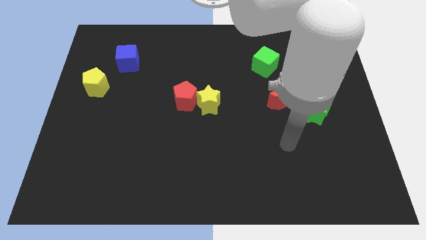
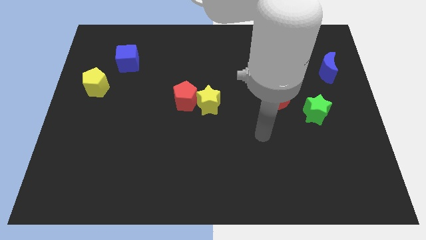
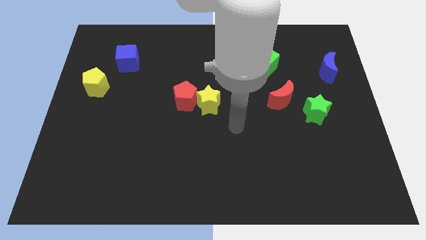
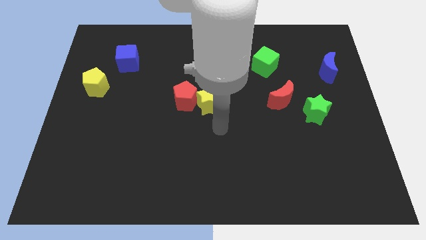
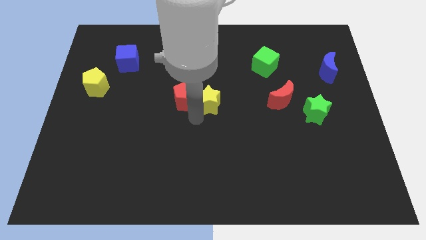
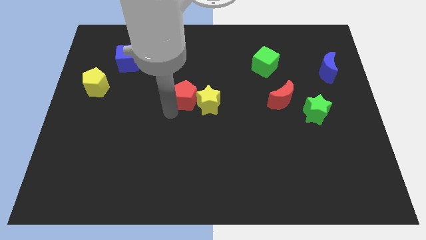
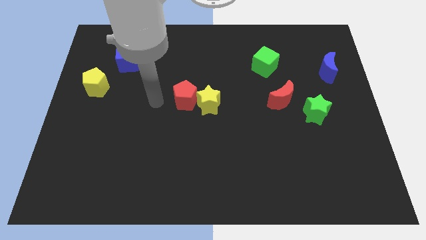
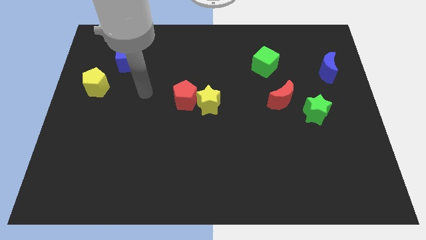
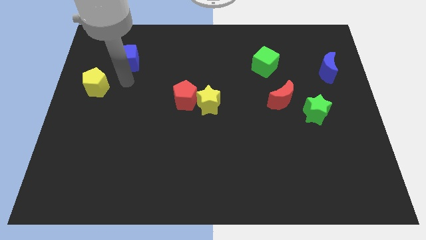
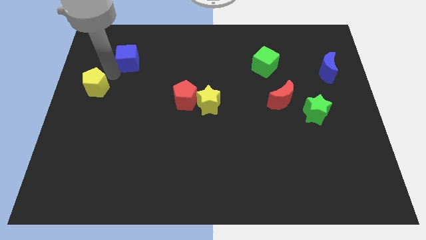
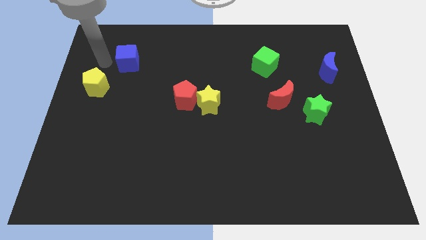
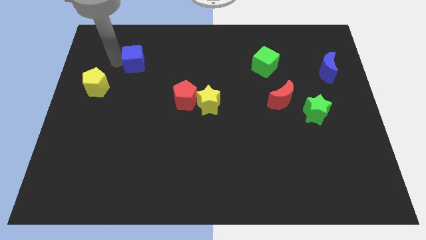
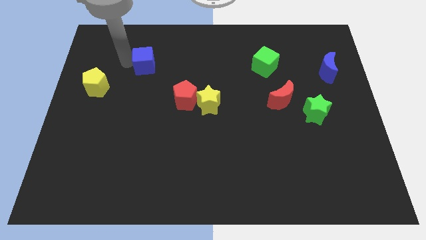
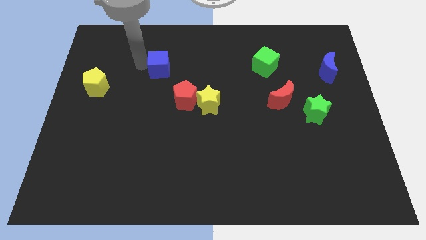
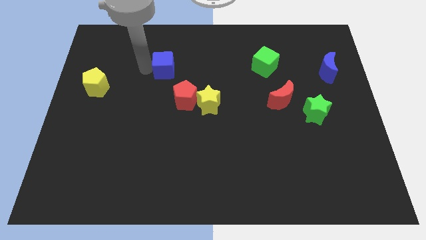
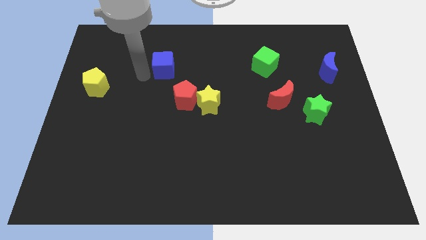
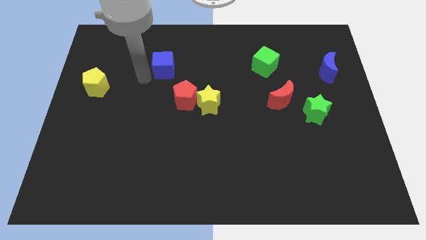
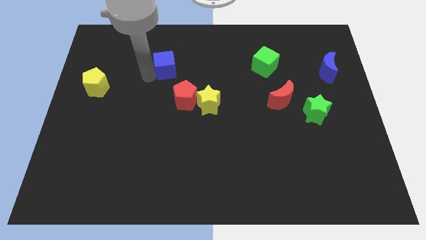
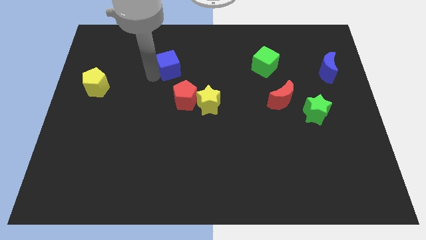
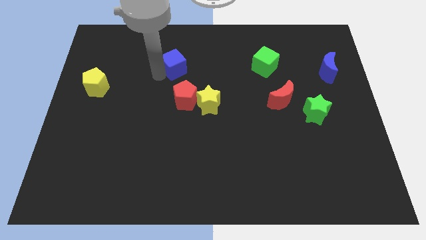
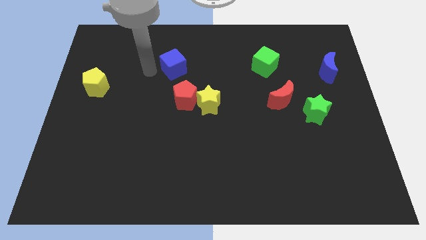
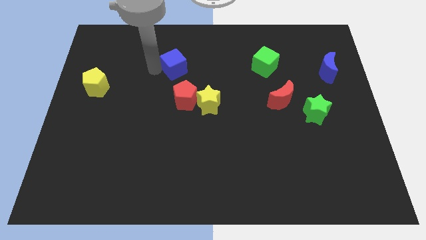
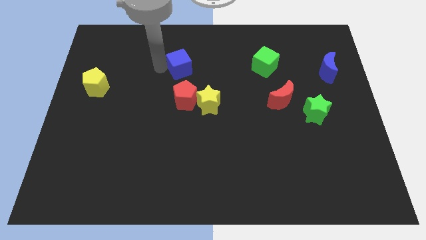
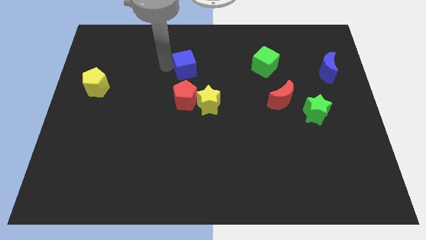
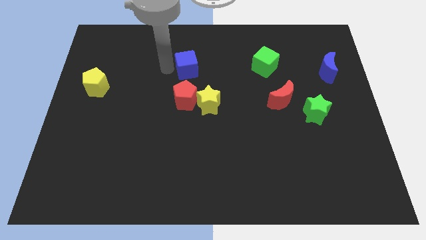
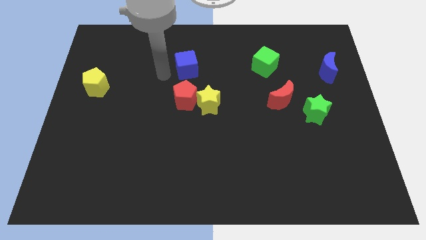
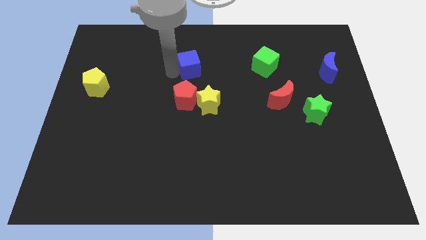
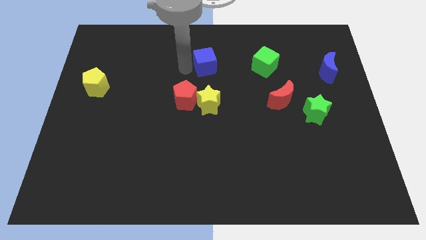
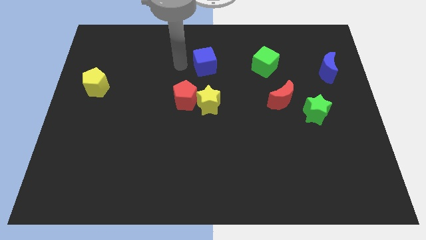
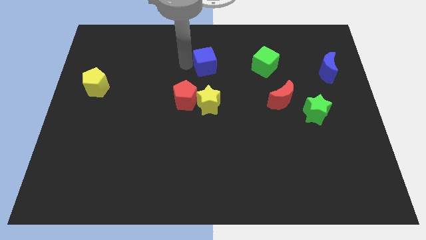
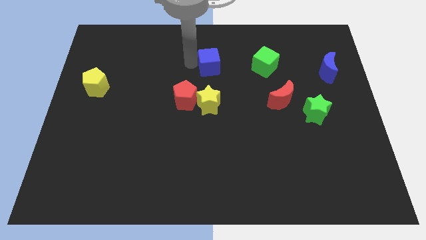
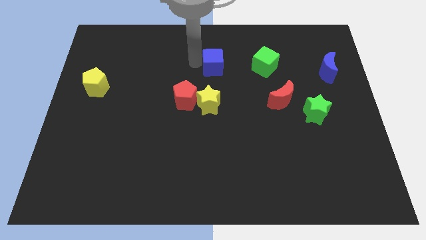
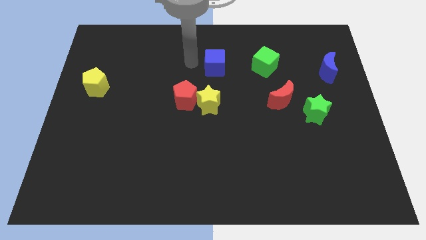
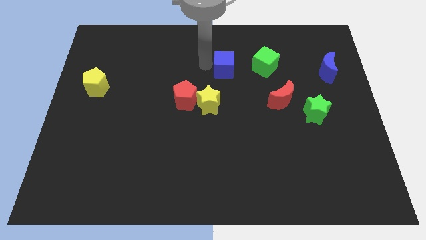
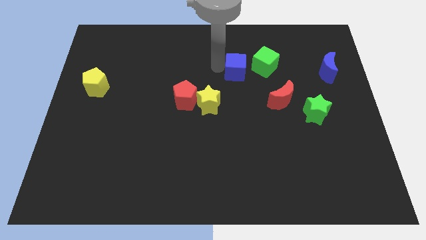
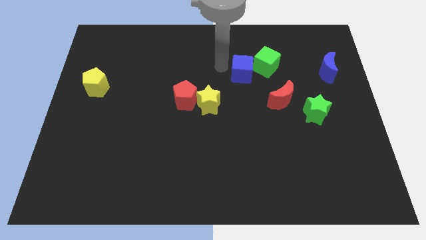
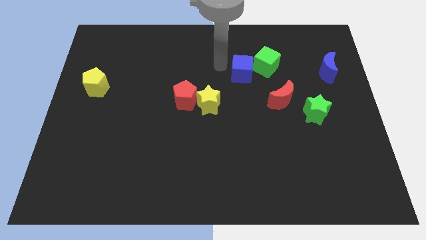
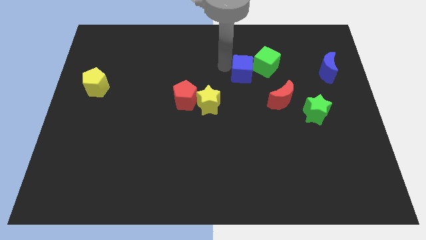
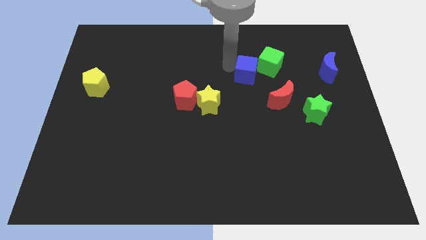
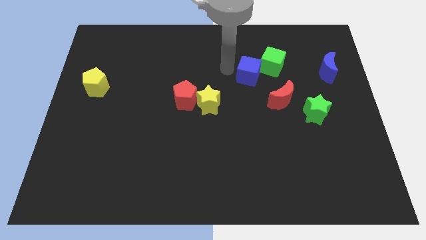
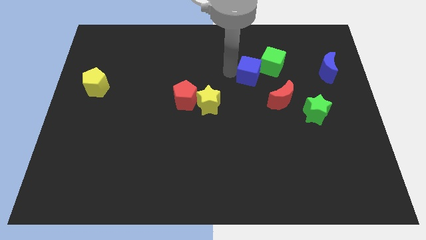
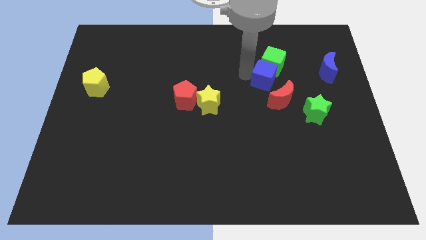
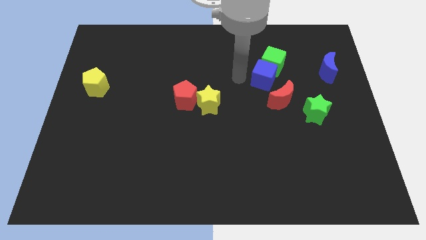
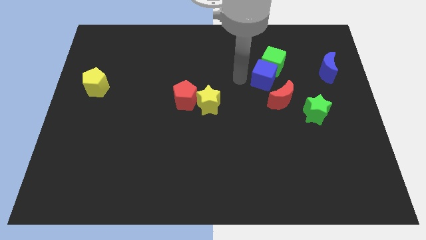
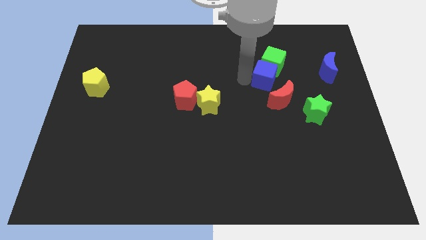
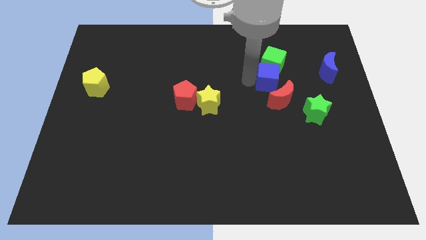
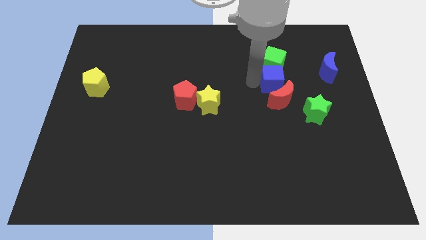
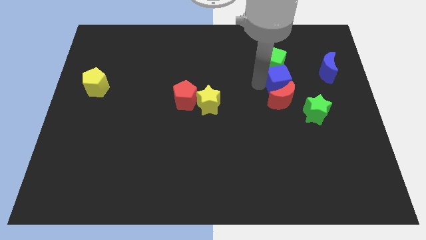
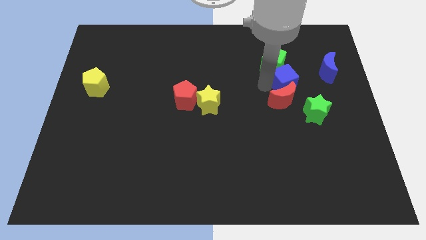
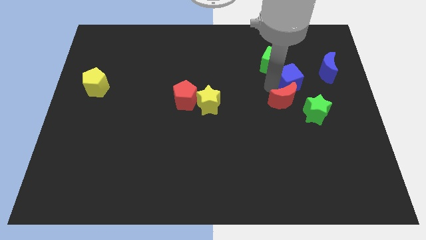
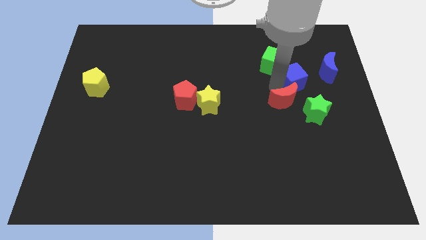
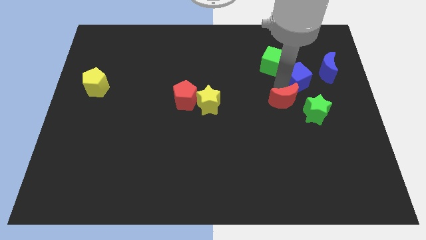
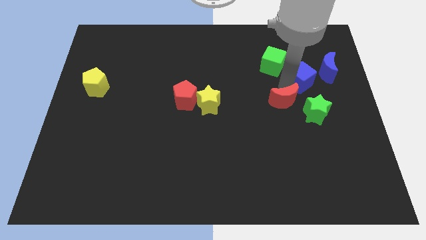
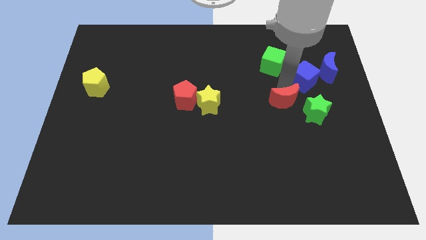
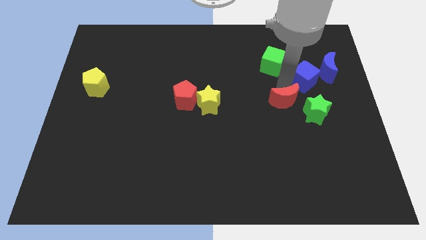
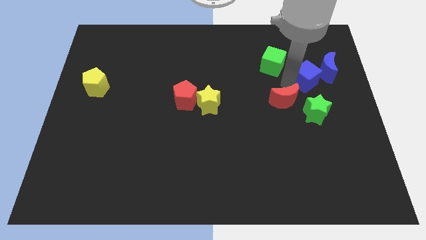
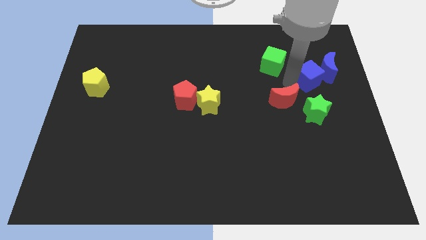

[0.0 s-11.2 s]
move the blue cube close to the blue moon

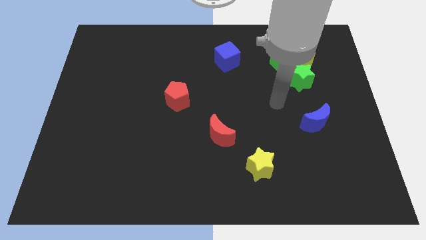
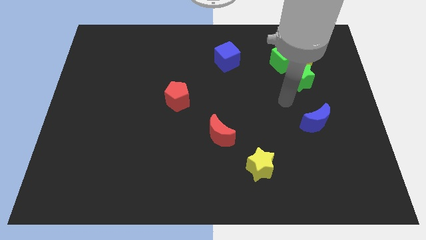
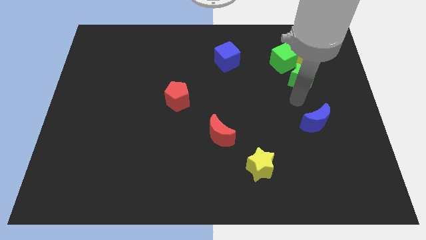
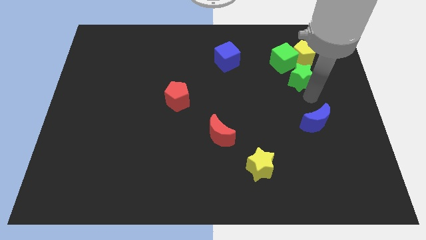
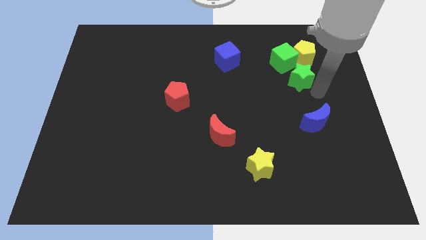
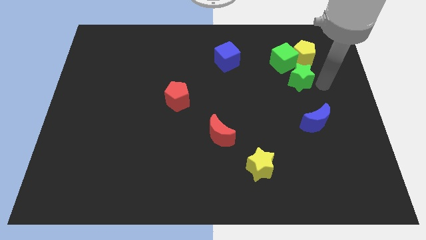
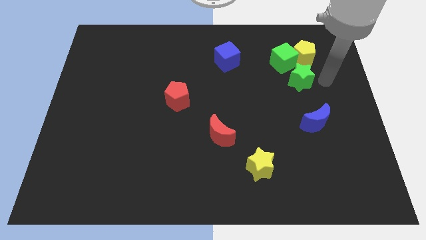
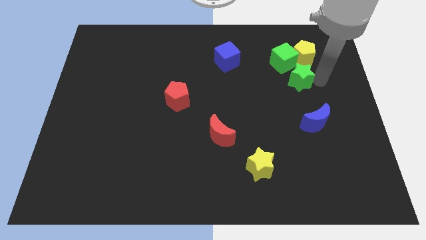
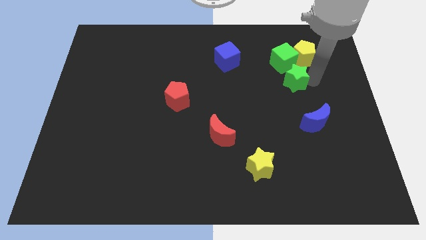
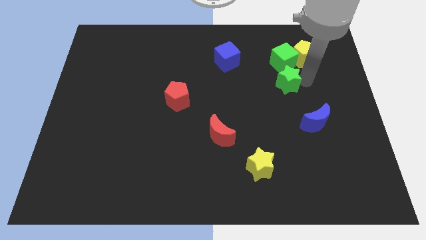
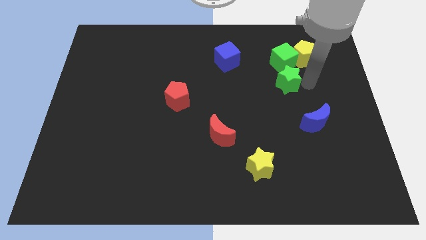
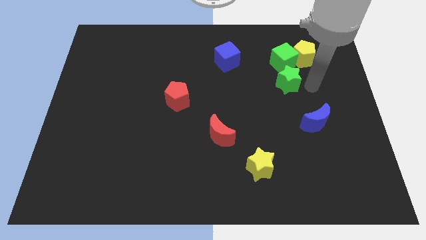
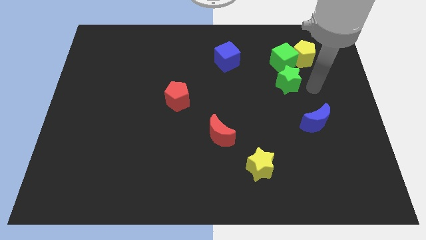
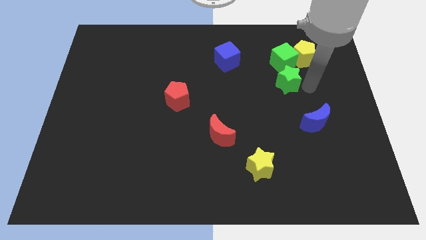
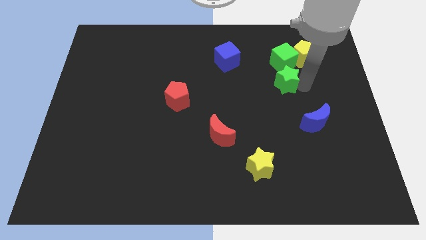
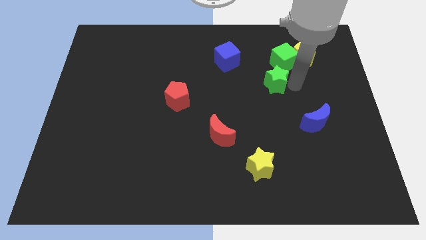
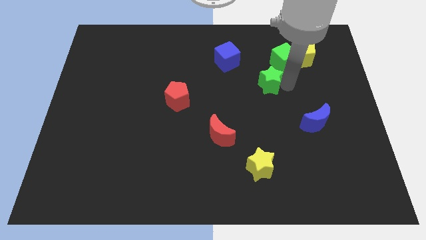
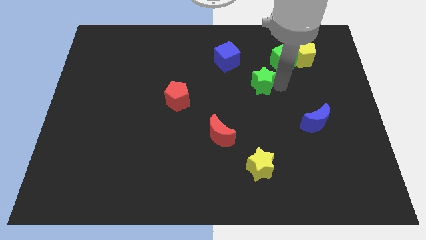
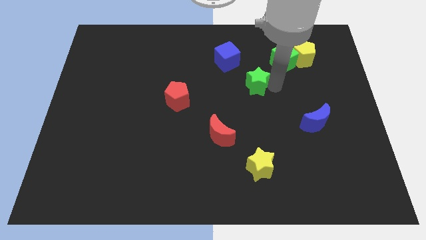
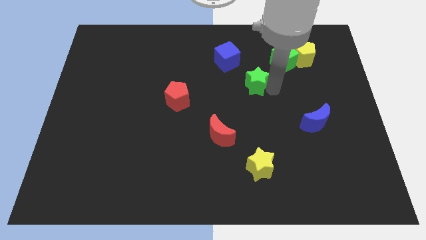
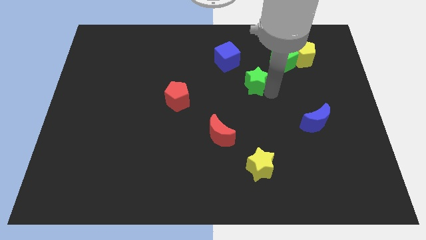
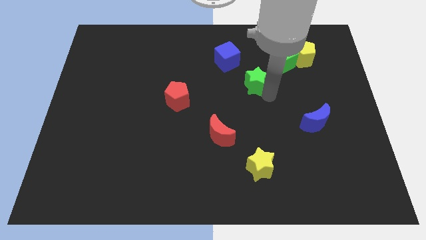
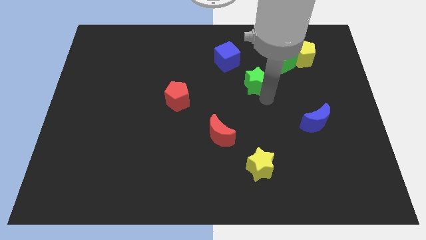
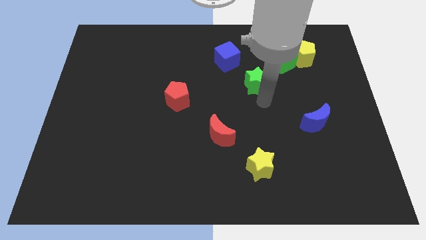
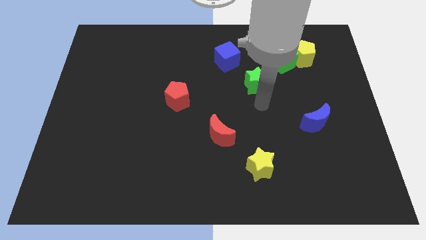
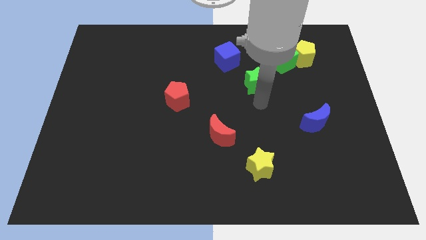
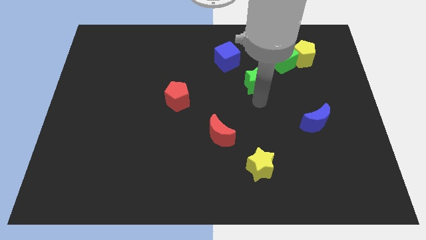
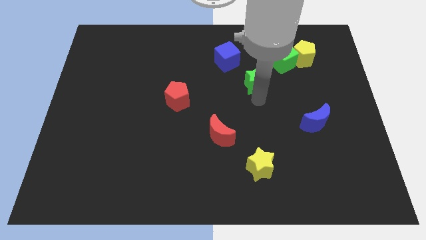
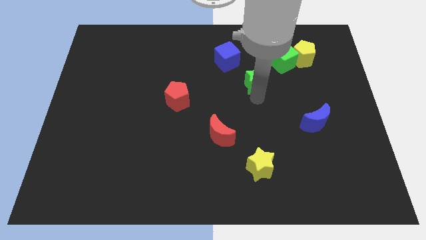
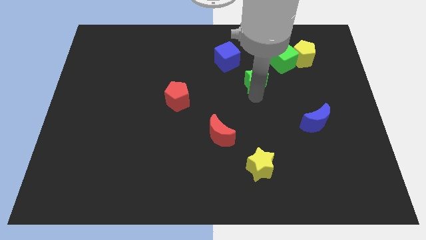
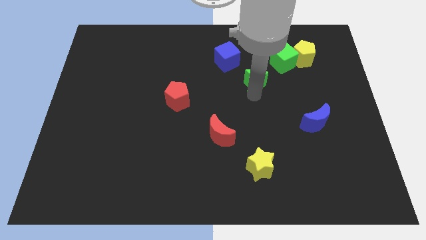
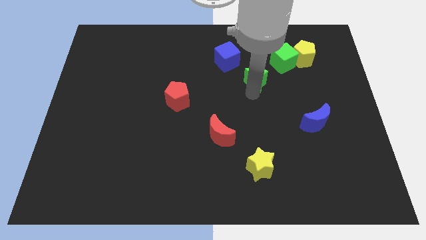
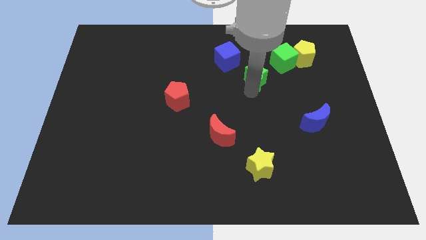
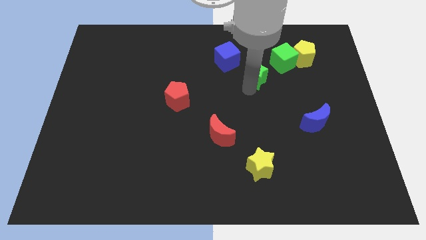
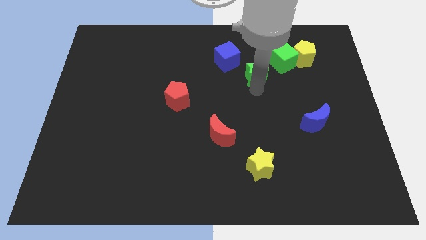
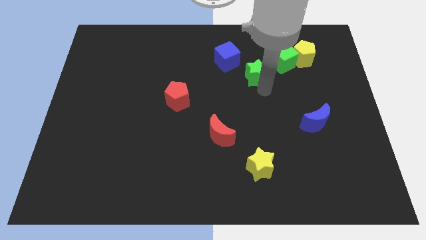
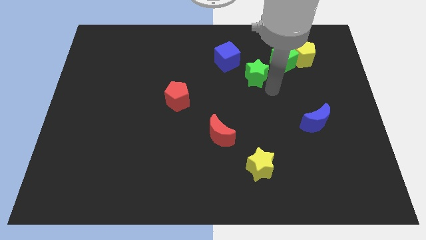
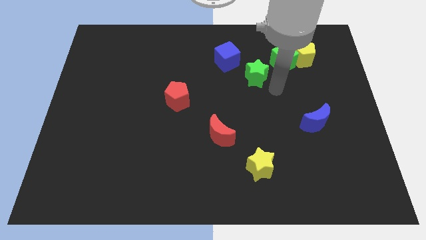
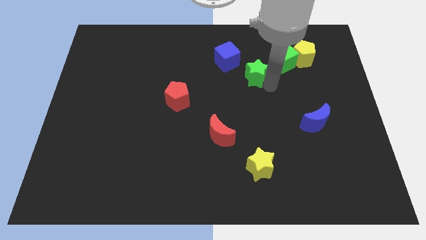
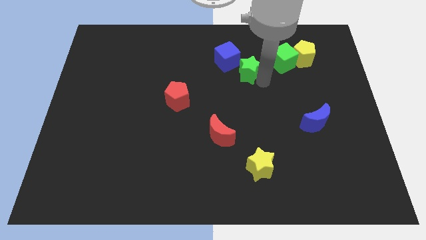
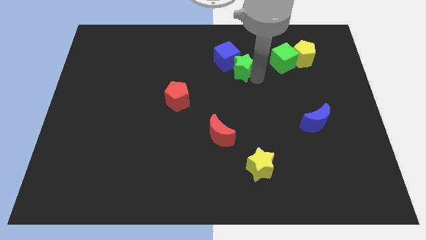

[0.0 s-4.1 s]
put the green star to the blue cube
